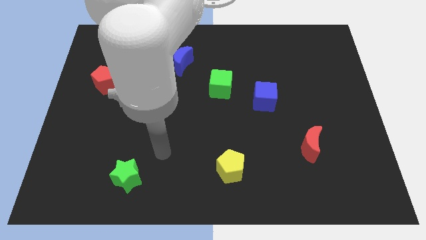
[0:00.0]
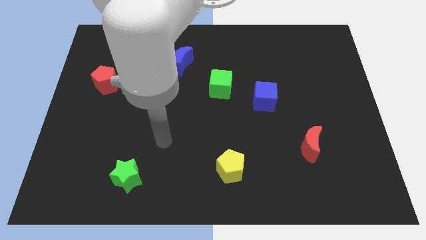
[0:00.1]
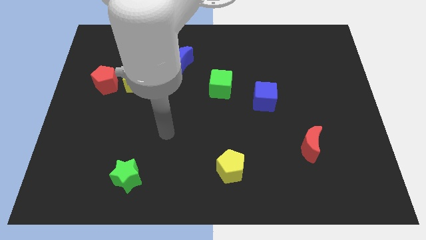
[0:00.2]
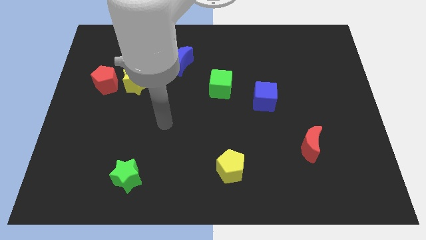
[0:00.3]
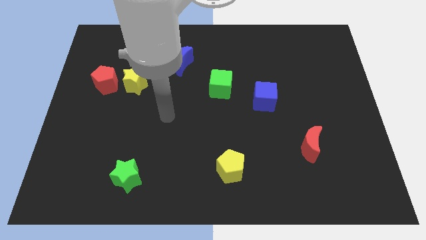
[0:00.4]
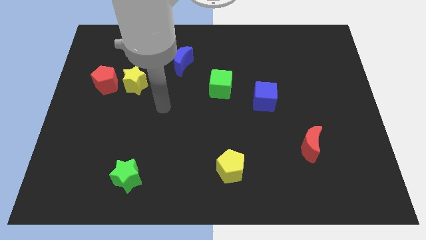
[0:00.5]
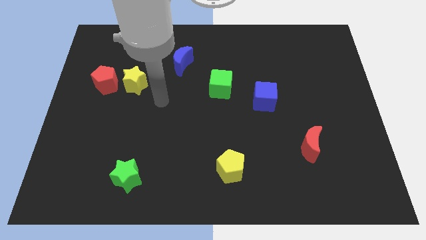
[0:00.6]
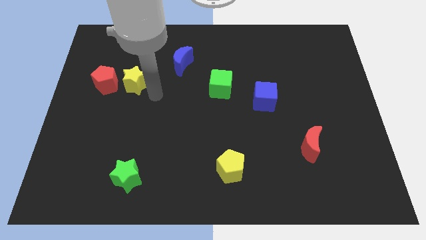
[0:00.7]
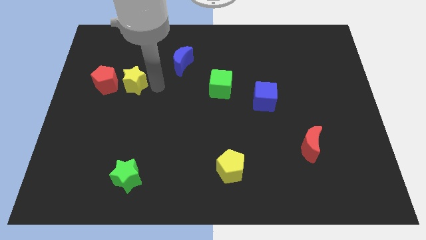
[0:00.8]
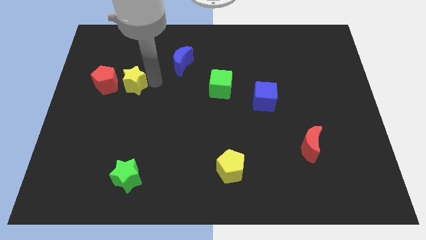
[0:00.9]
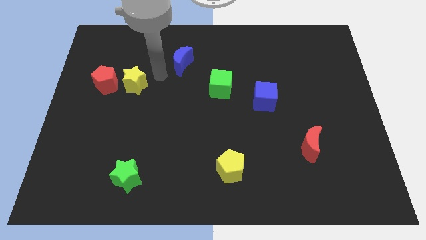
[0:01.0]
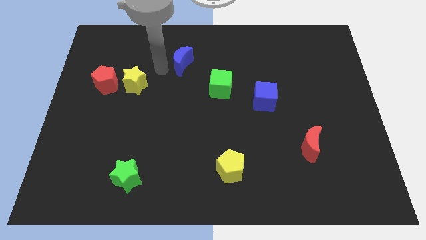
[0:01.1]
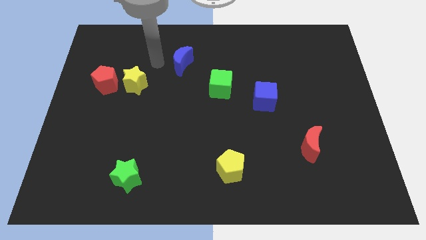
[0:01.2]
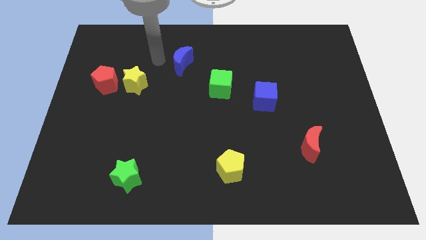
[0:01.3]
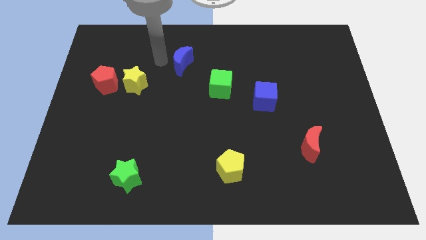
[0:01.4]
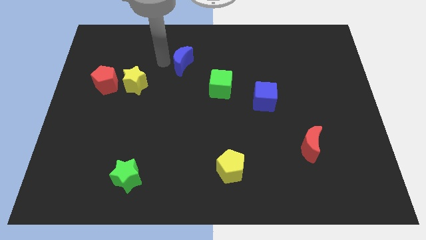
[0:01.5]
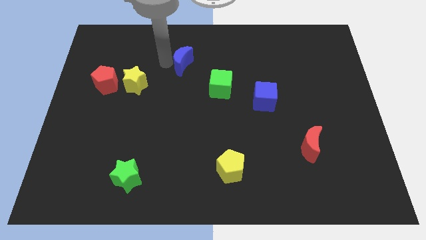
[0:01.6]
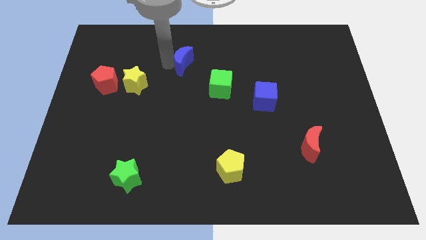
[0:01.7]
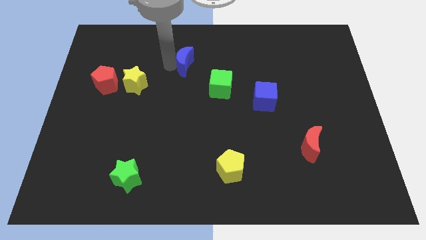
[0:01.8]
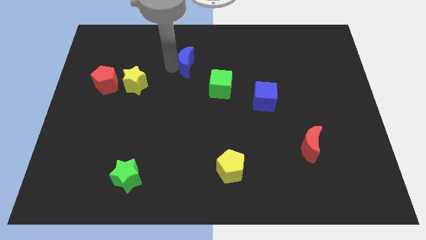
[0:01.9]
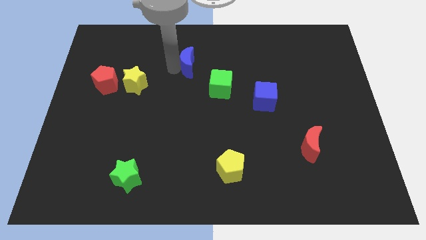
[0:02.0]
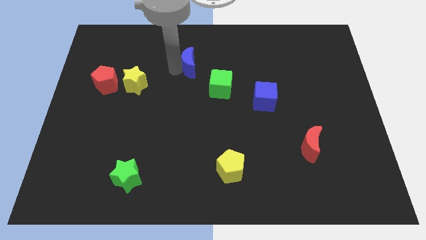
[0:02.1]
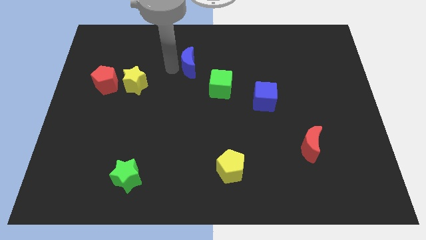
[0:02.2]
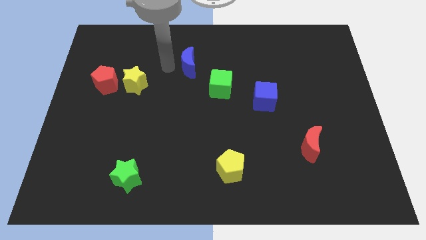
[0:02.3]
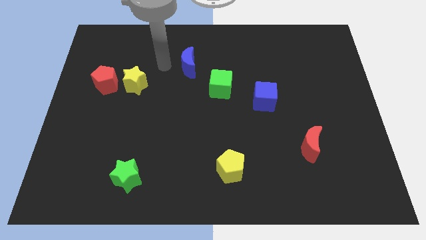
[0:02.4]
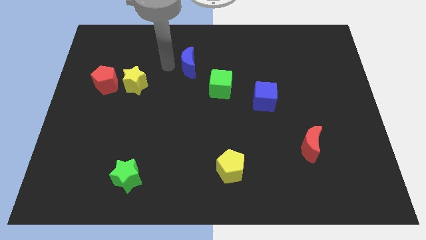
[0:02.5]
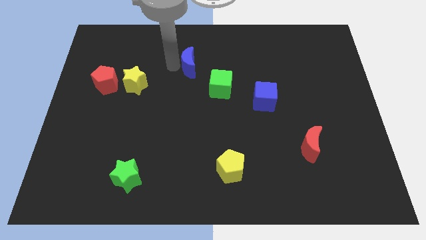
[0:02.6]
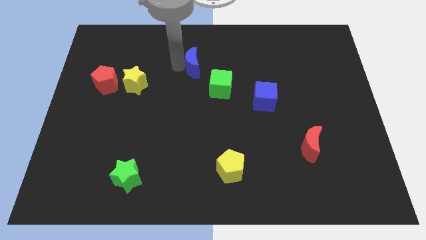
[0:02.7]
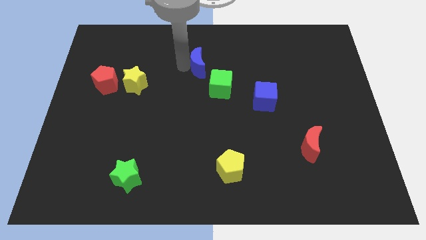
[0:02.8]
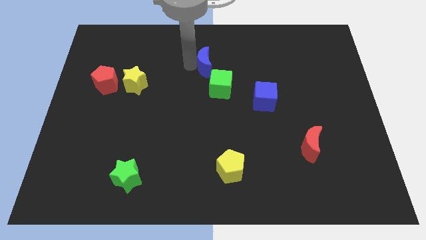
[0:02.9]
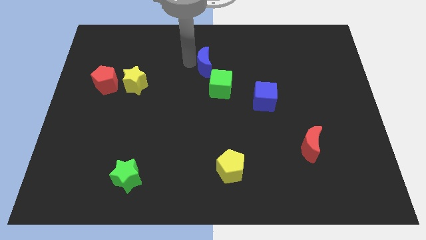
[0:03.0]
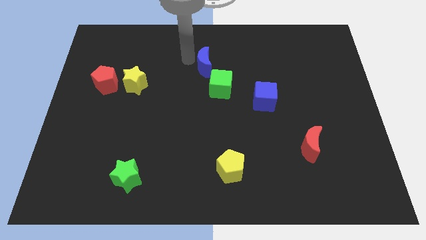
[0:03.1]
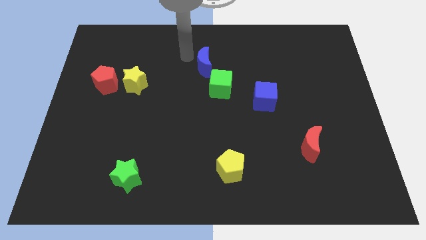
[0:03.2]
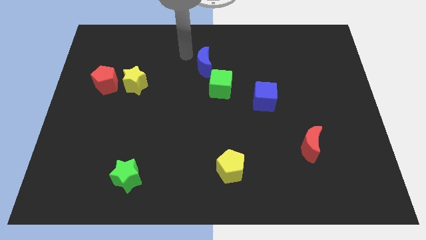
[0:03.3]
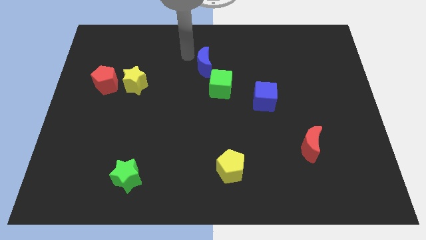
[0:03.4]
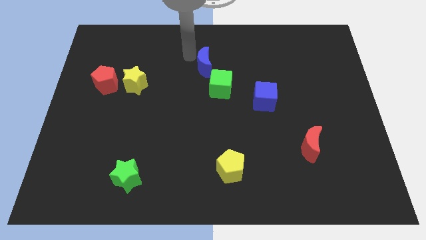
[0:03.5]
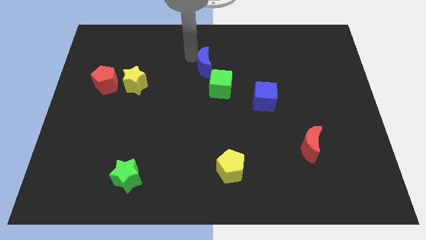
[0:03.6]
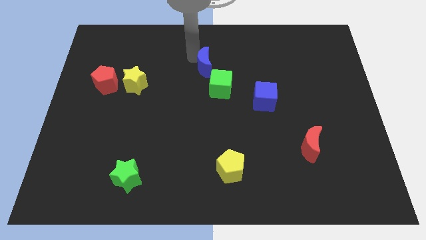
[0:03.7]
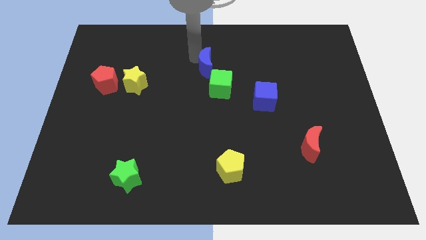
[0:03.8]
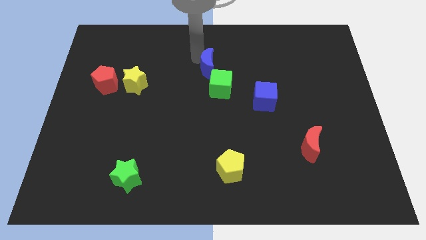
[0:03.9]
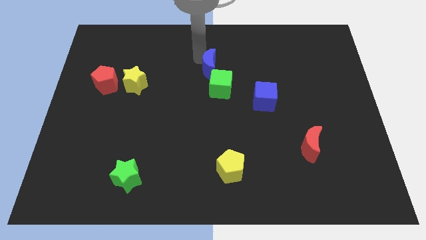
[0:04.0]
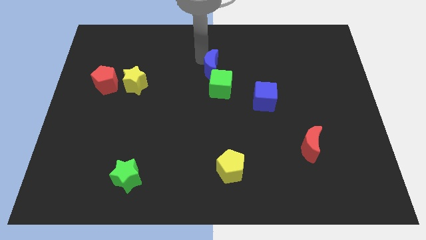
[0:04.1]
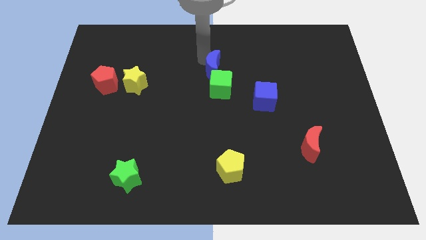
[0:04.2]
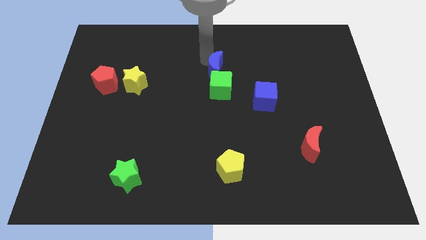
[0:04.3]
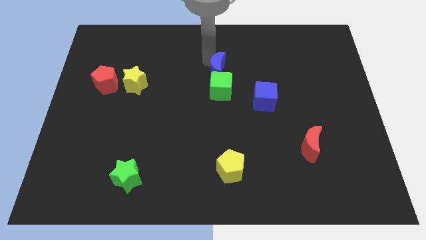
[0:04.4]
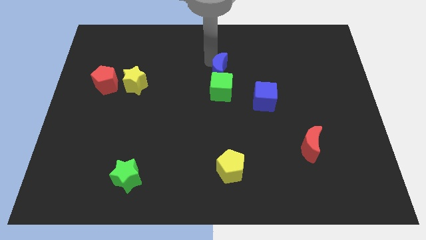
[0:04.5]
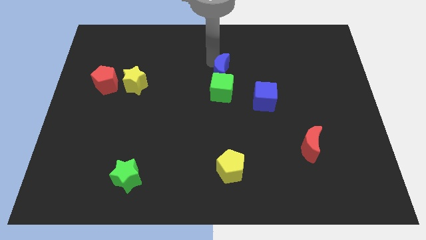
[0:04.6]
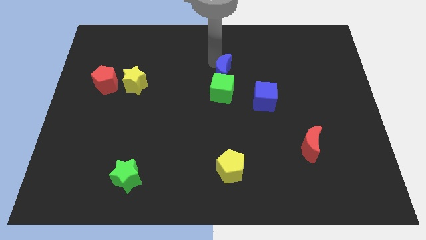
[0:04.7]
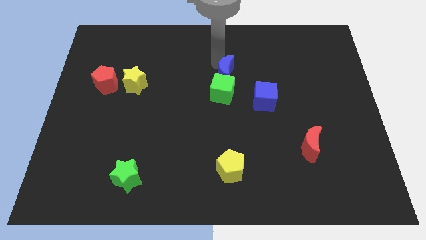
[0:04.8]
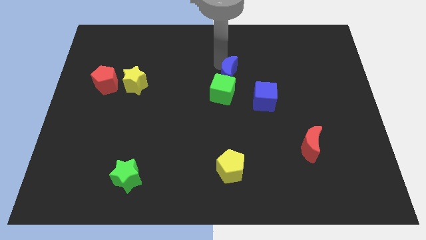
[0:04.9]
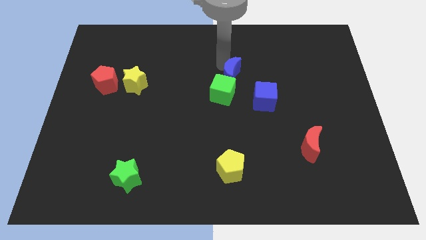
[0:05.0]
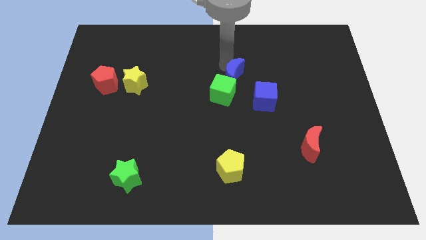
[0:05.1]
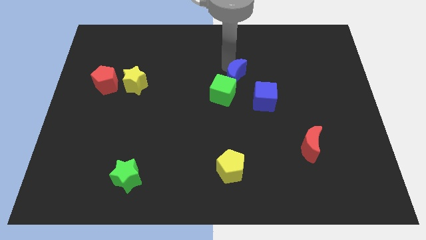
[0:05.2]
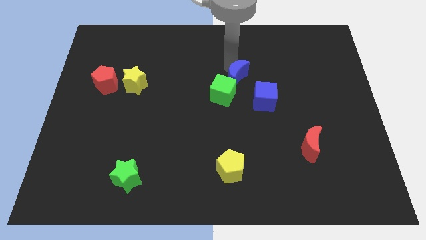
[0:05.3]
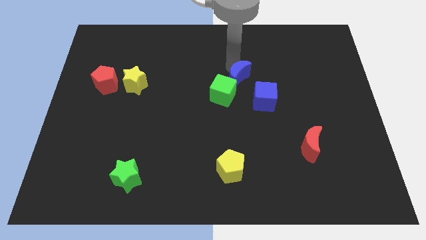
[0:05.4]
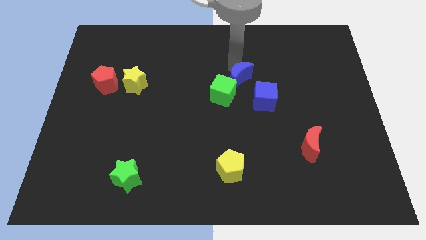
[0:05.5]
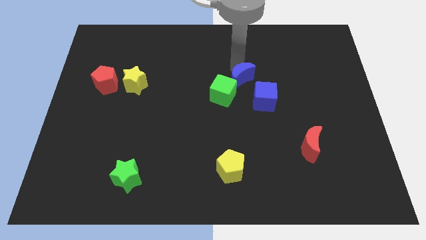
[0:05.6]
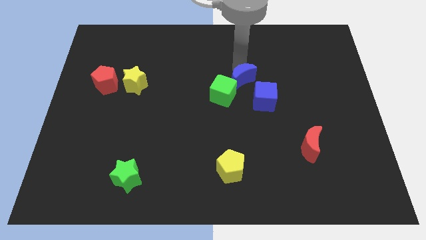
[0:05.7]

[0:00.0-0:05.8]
push the blue moon just right of the green cube

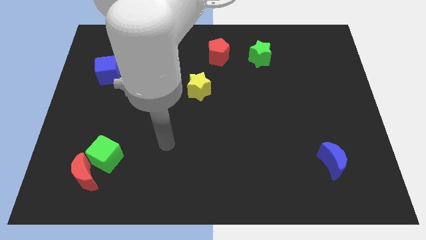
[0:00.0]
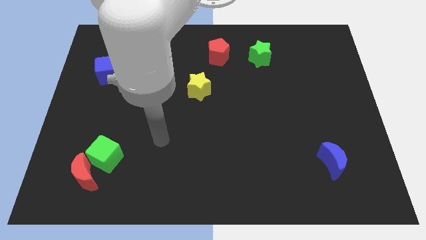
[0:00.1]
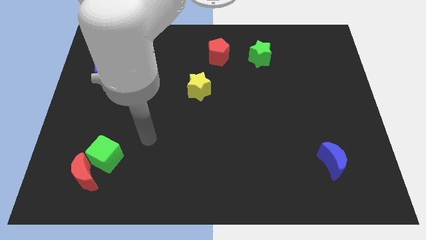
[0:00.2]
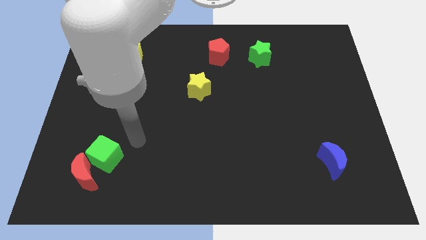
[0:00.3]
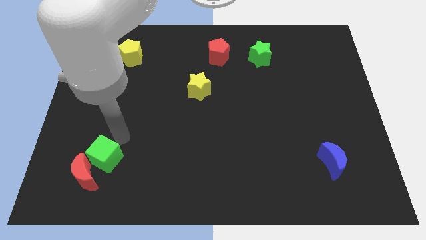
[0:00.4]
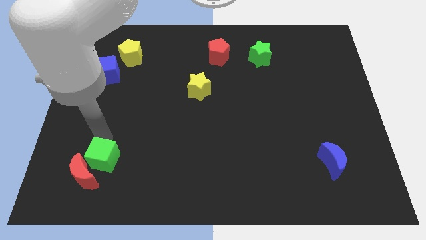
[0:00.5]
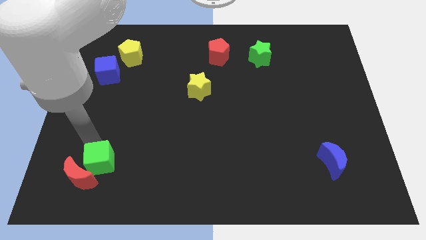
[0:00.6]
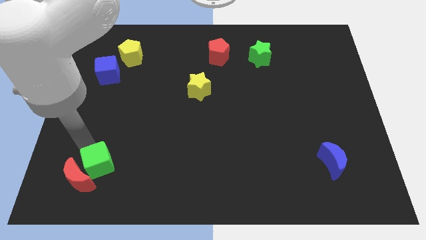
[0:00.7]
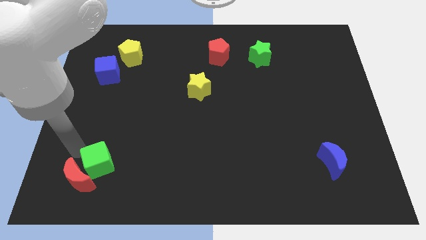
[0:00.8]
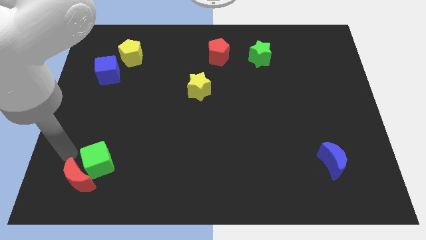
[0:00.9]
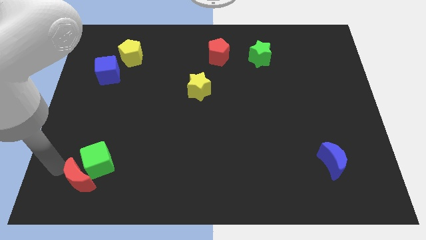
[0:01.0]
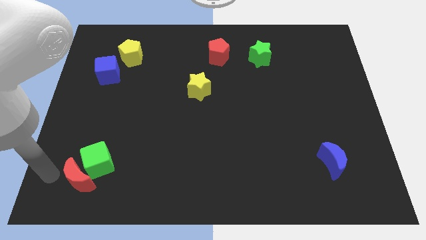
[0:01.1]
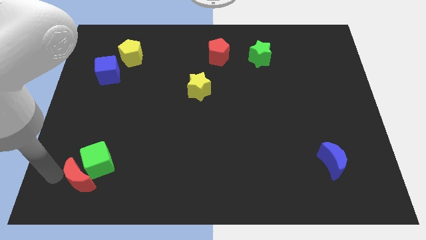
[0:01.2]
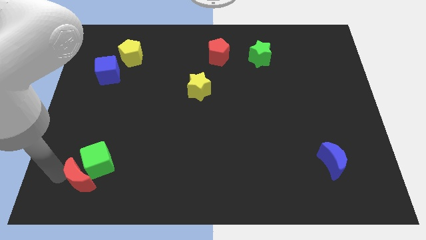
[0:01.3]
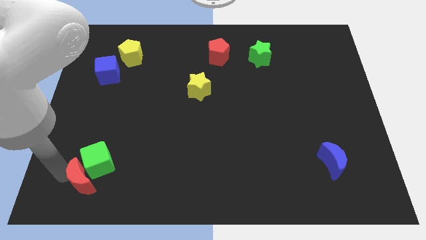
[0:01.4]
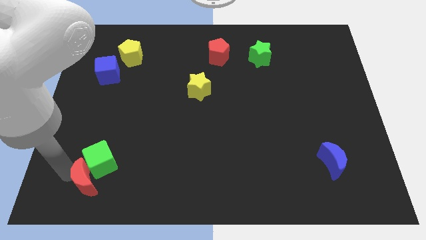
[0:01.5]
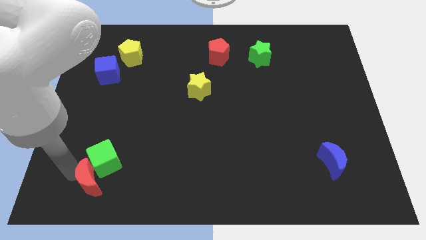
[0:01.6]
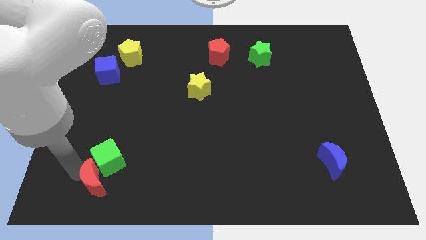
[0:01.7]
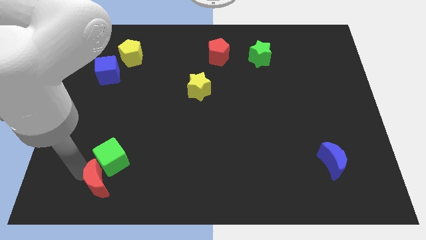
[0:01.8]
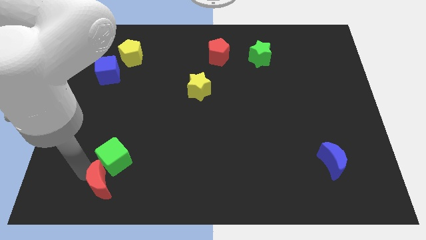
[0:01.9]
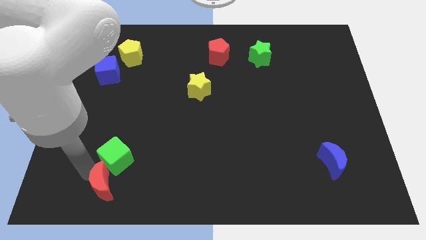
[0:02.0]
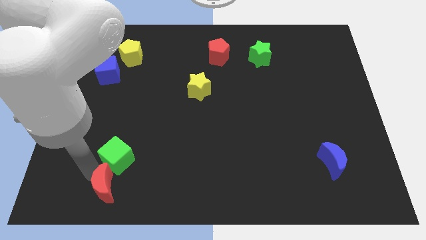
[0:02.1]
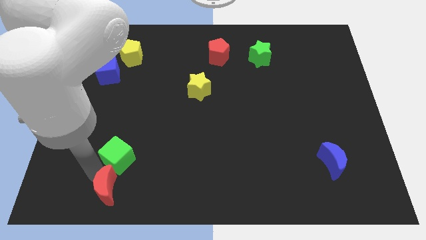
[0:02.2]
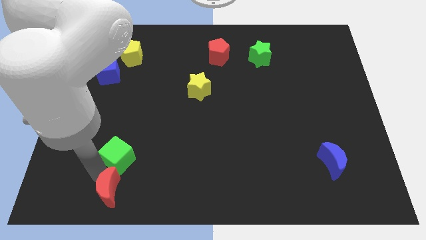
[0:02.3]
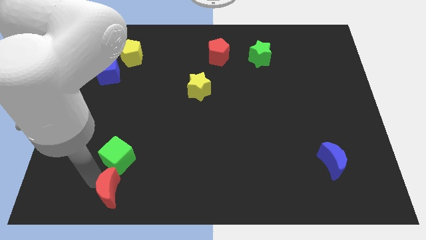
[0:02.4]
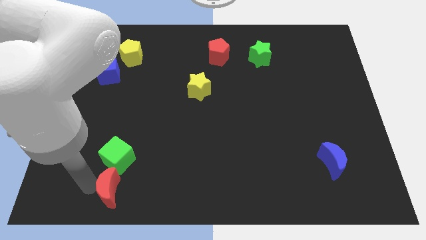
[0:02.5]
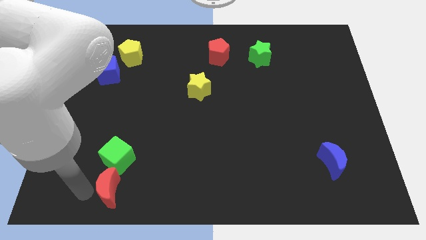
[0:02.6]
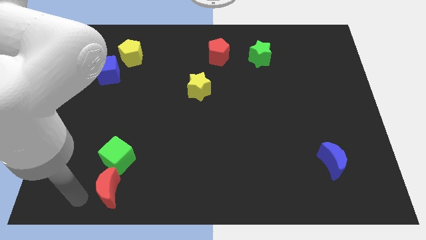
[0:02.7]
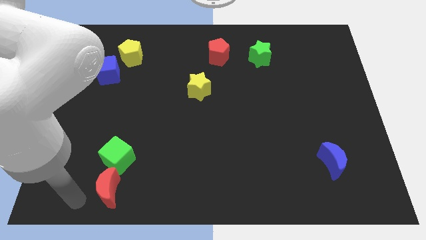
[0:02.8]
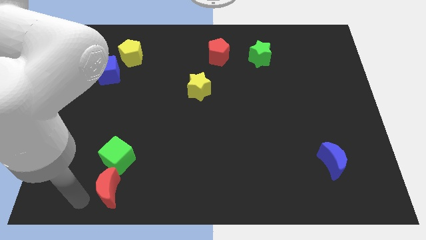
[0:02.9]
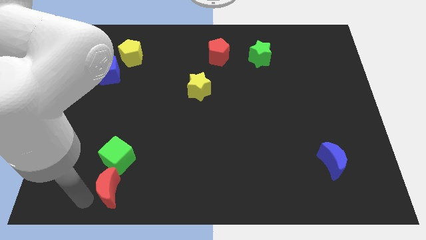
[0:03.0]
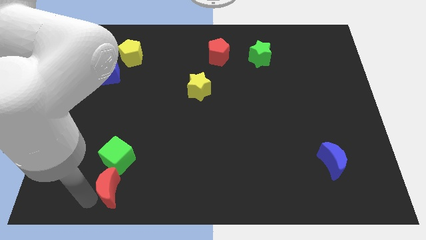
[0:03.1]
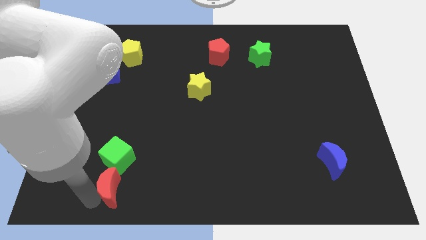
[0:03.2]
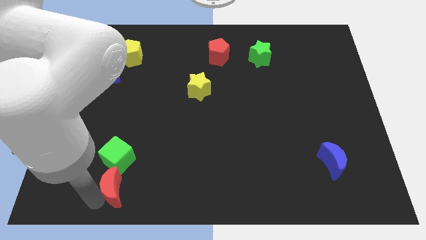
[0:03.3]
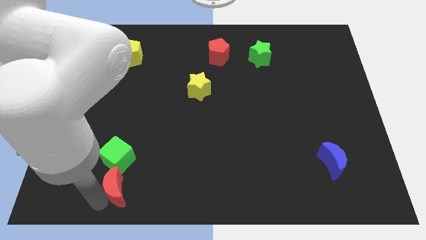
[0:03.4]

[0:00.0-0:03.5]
push the red moon diagonally down and to the right of the green cube
